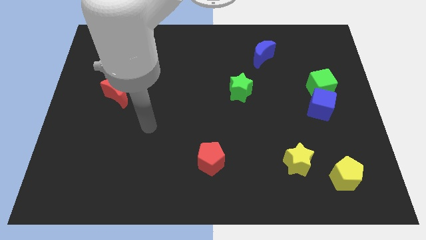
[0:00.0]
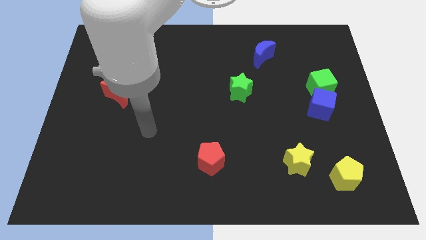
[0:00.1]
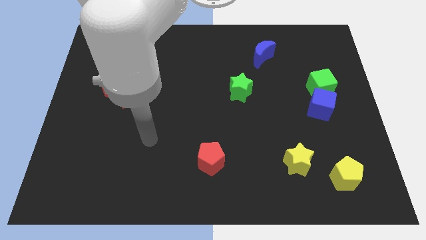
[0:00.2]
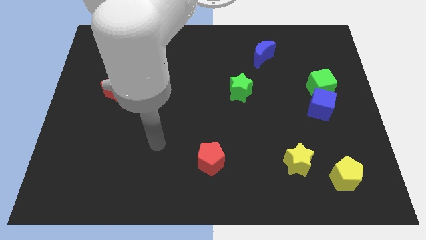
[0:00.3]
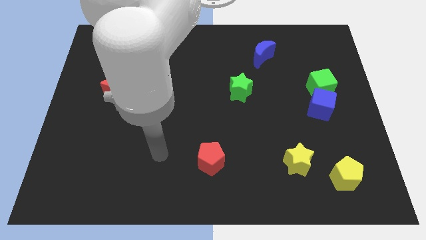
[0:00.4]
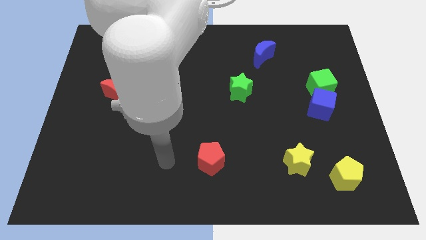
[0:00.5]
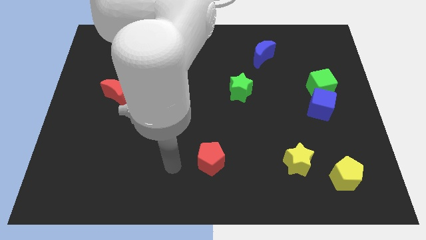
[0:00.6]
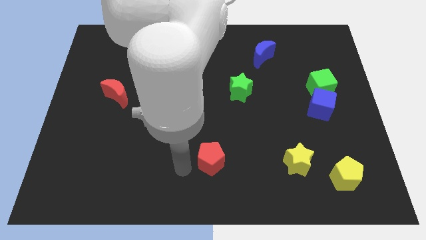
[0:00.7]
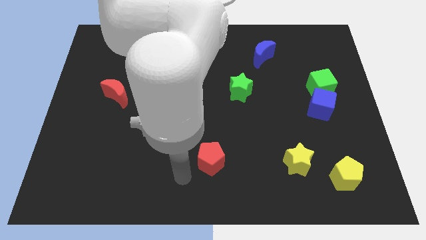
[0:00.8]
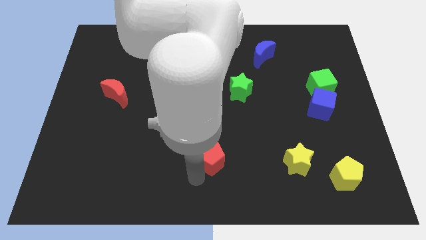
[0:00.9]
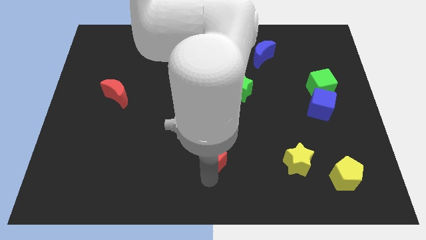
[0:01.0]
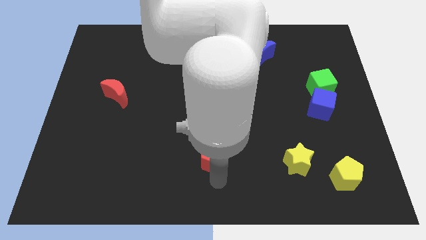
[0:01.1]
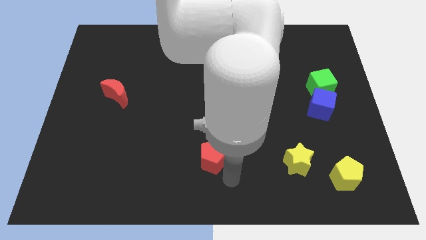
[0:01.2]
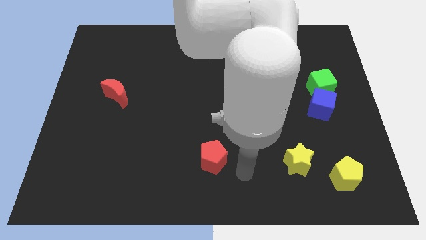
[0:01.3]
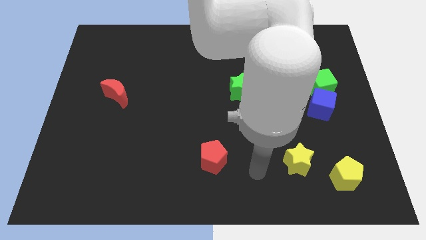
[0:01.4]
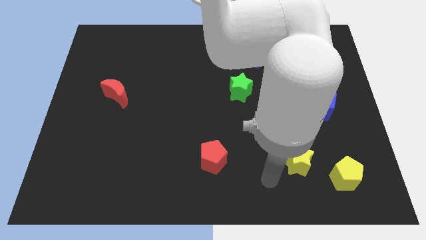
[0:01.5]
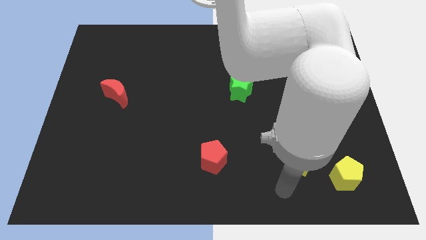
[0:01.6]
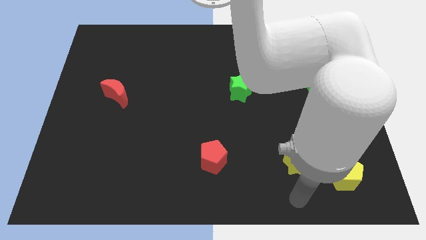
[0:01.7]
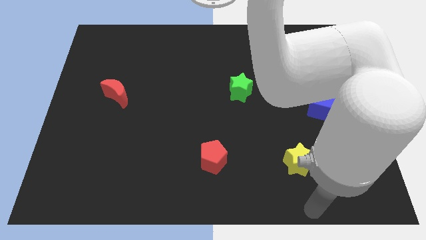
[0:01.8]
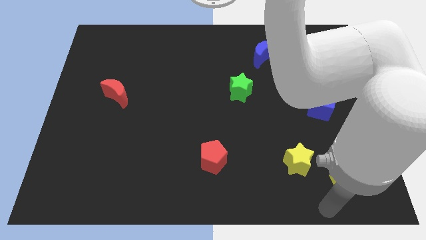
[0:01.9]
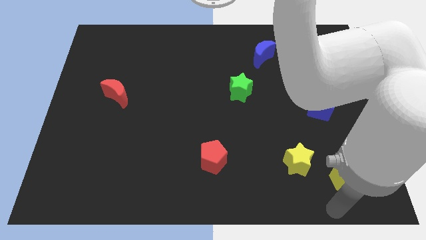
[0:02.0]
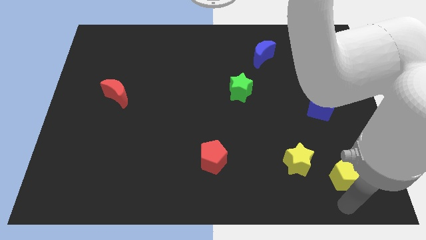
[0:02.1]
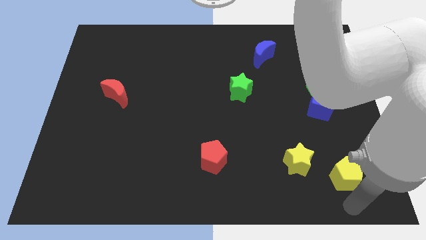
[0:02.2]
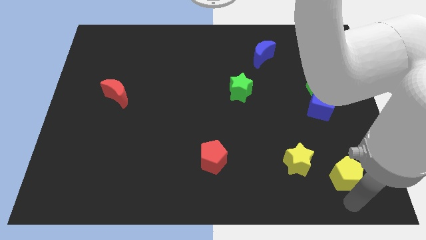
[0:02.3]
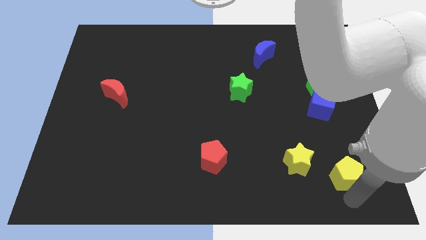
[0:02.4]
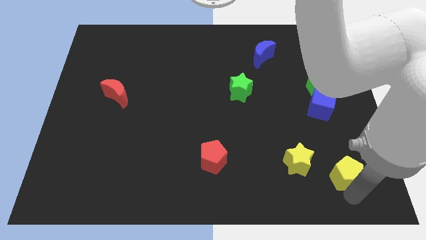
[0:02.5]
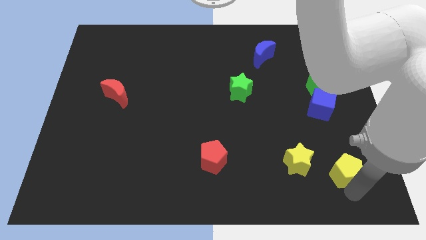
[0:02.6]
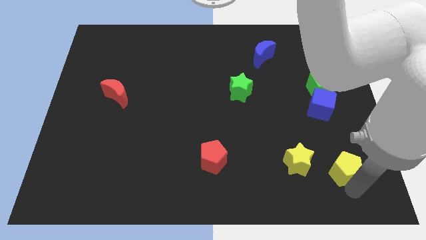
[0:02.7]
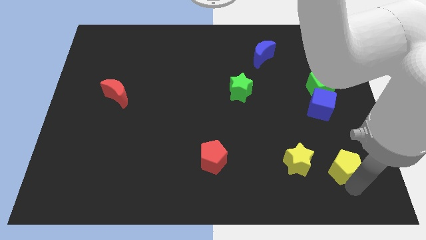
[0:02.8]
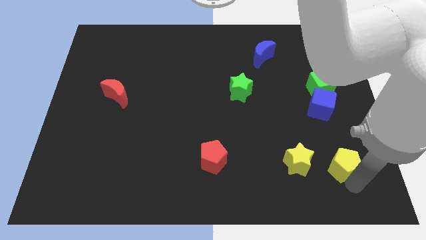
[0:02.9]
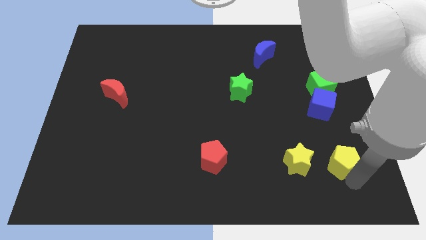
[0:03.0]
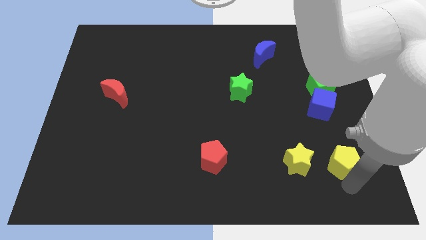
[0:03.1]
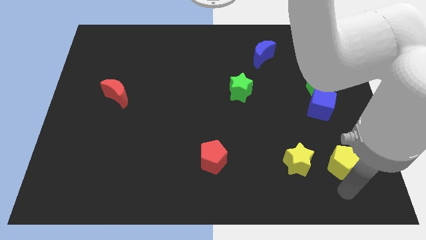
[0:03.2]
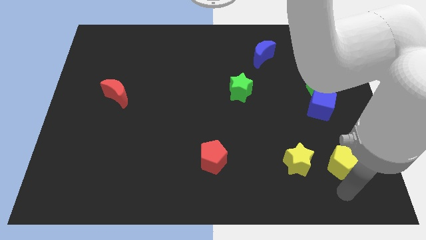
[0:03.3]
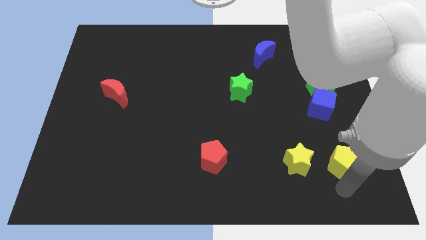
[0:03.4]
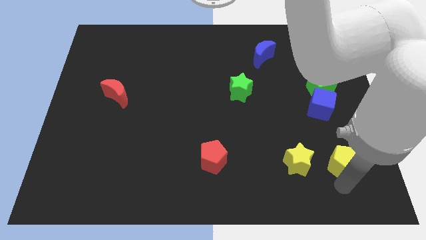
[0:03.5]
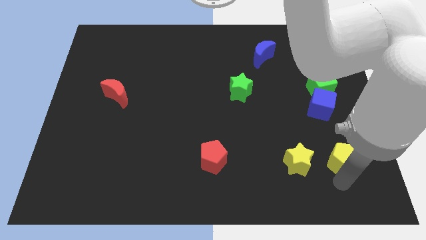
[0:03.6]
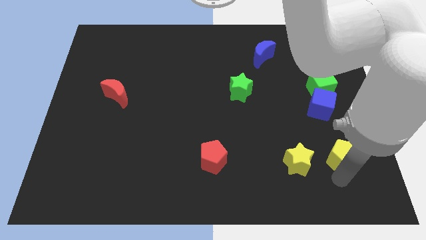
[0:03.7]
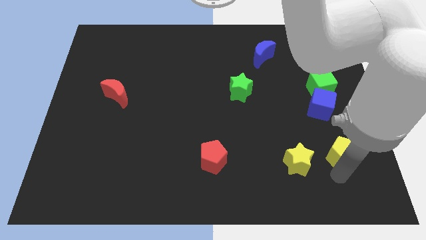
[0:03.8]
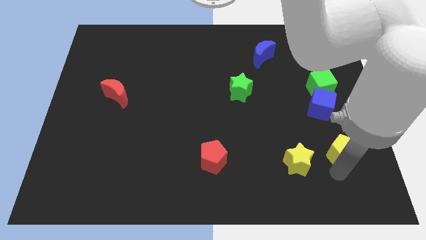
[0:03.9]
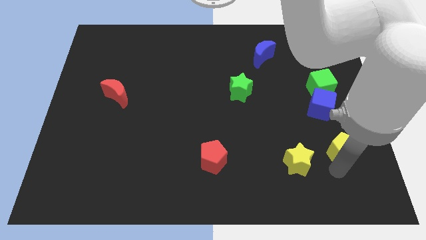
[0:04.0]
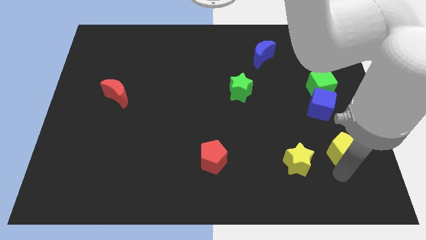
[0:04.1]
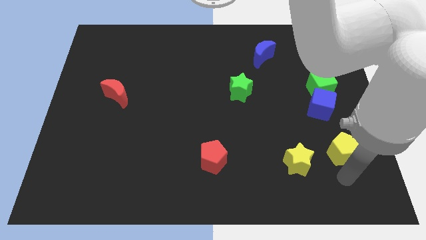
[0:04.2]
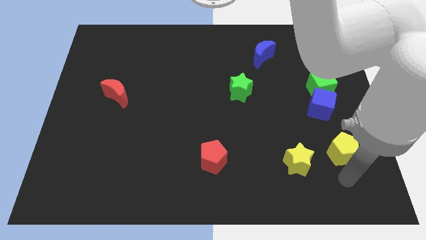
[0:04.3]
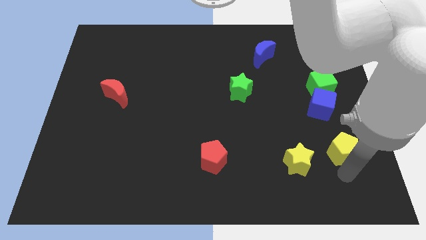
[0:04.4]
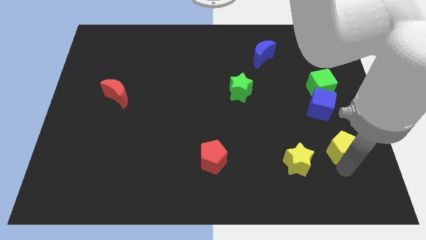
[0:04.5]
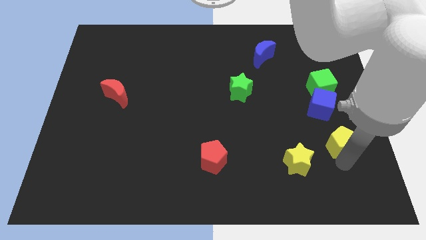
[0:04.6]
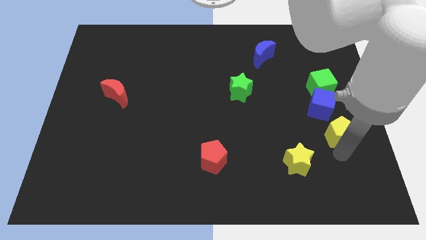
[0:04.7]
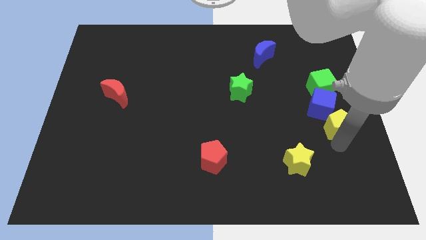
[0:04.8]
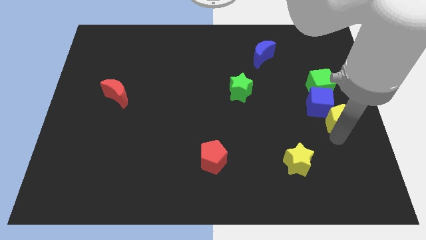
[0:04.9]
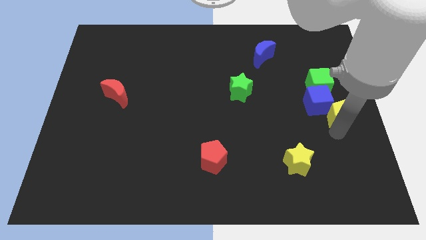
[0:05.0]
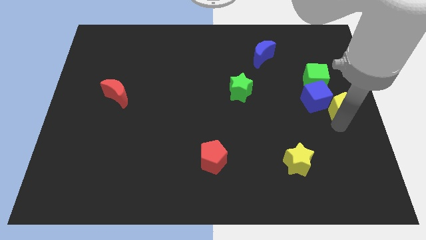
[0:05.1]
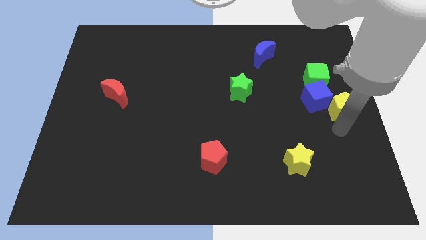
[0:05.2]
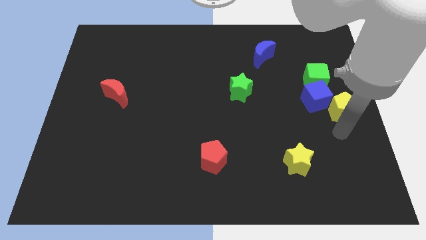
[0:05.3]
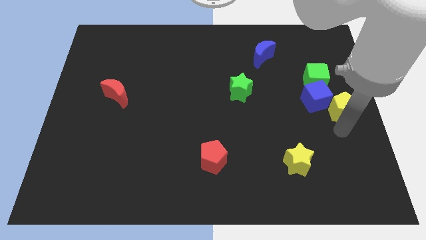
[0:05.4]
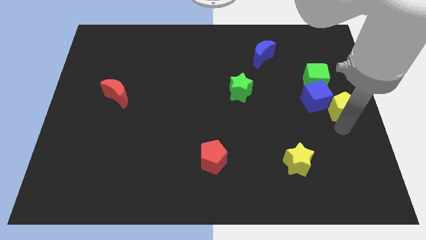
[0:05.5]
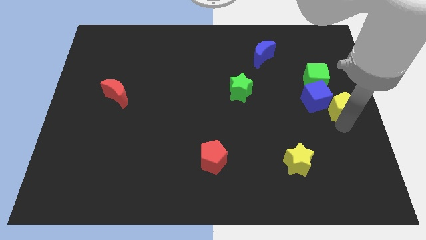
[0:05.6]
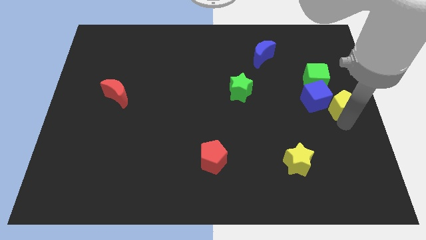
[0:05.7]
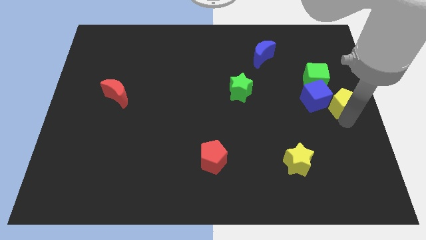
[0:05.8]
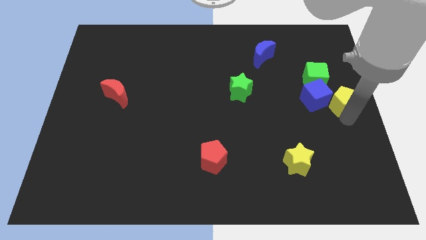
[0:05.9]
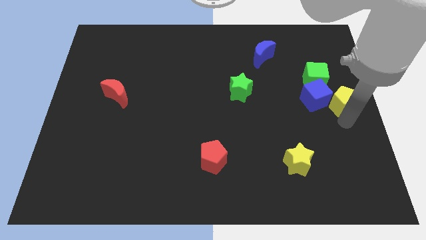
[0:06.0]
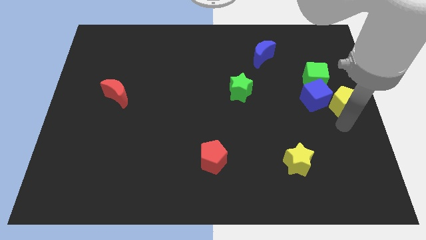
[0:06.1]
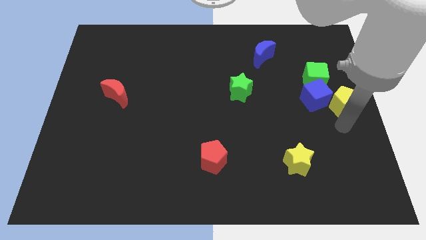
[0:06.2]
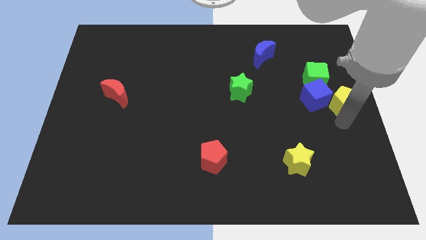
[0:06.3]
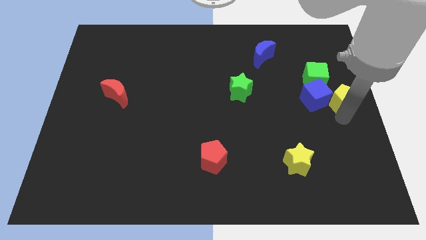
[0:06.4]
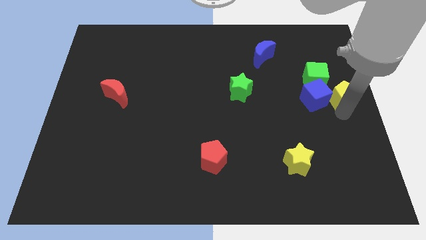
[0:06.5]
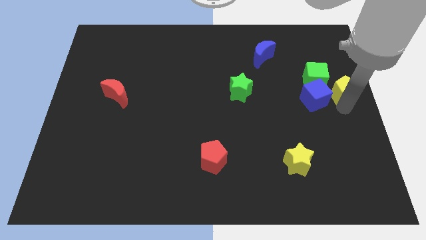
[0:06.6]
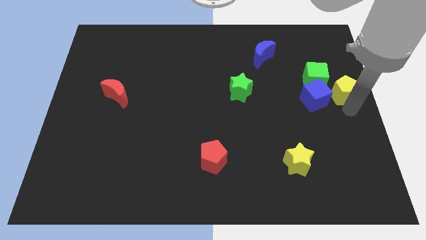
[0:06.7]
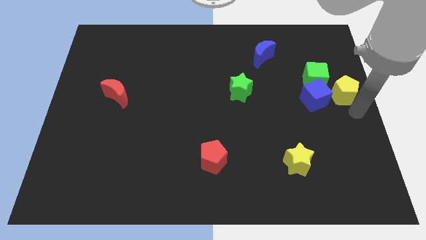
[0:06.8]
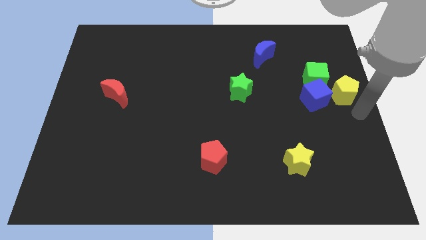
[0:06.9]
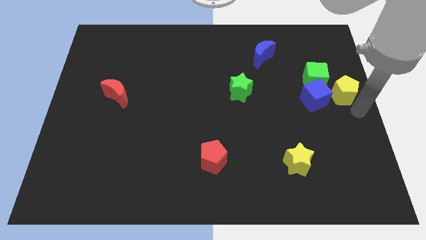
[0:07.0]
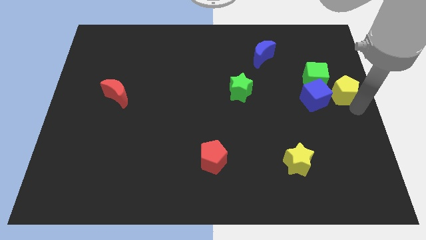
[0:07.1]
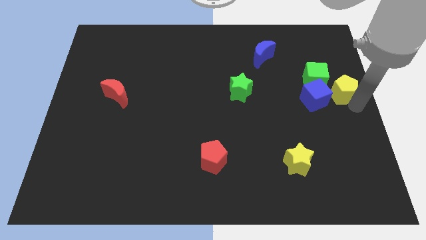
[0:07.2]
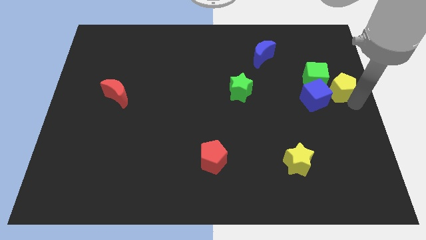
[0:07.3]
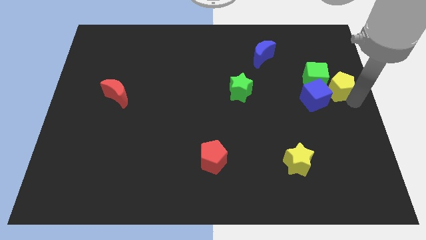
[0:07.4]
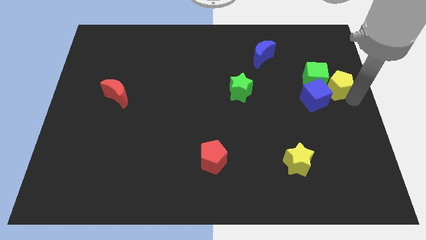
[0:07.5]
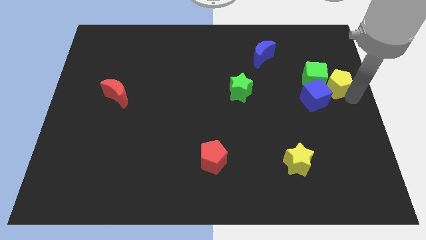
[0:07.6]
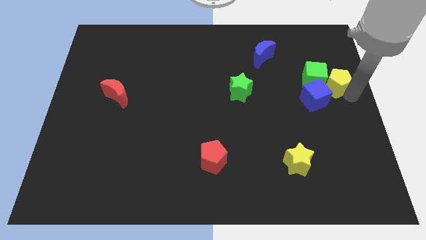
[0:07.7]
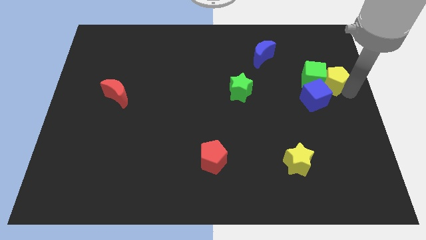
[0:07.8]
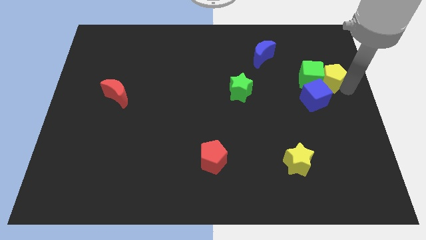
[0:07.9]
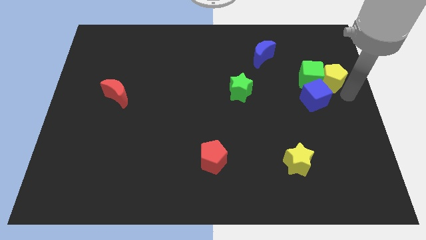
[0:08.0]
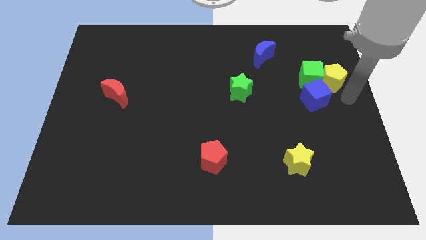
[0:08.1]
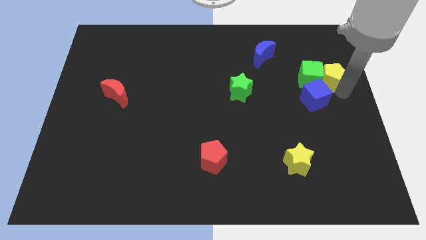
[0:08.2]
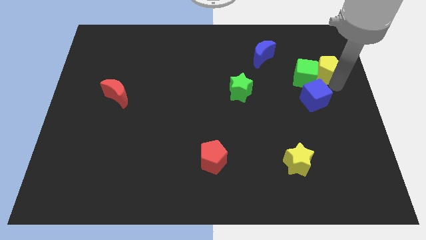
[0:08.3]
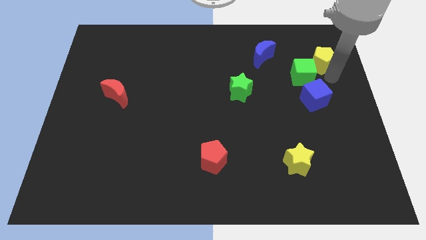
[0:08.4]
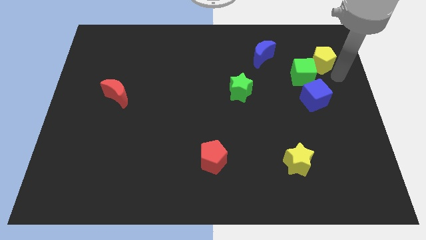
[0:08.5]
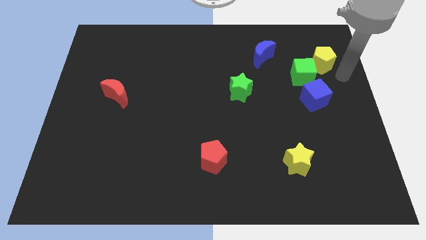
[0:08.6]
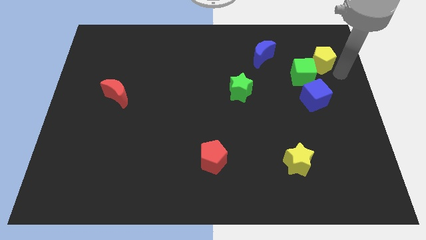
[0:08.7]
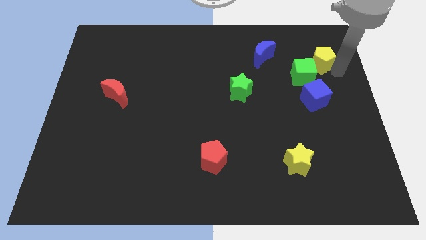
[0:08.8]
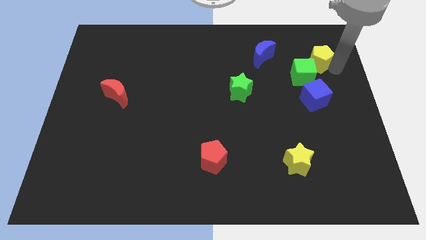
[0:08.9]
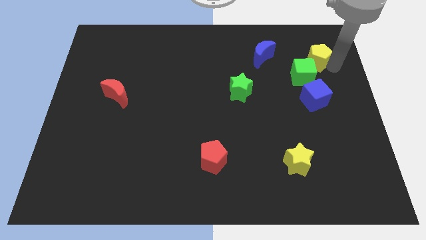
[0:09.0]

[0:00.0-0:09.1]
put the yellow pentagon above the green cube
